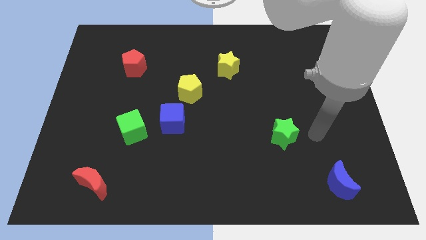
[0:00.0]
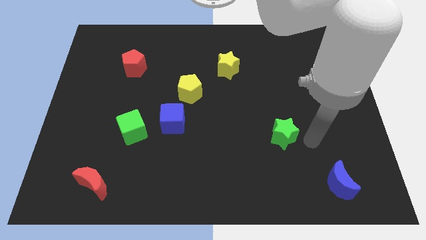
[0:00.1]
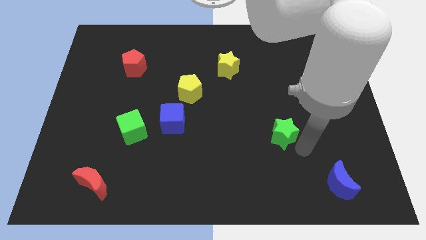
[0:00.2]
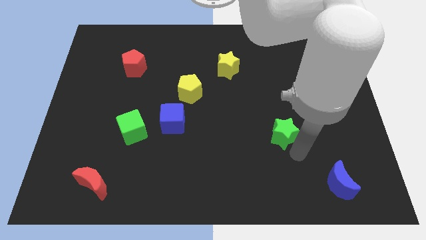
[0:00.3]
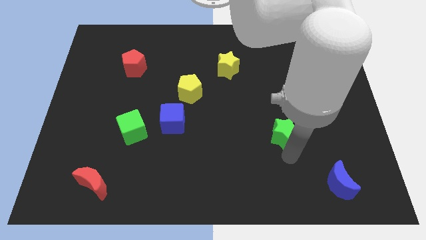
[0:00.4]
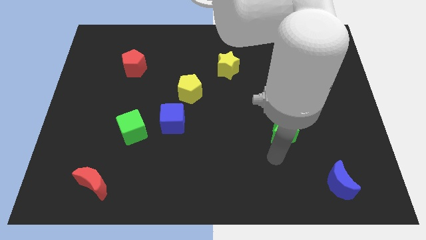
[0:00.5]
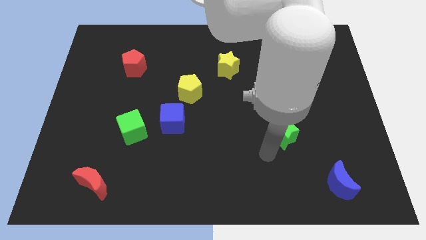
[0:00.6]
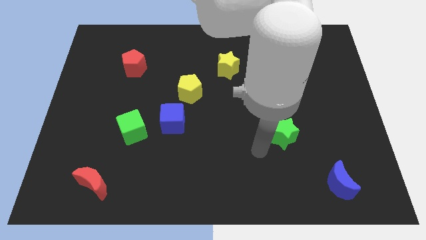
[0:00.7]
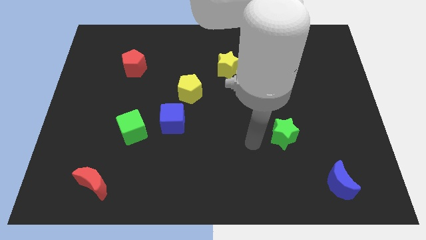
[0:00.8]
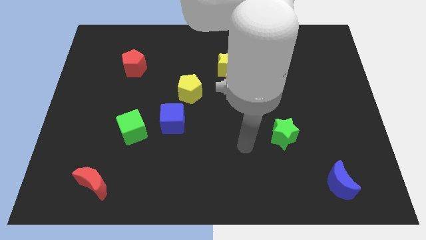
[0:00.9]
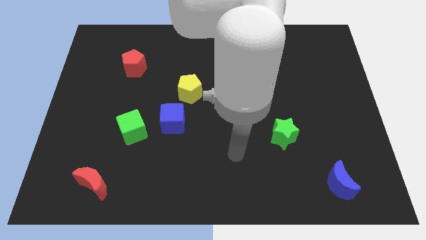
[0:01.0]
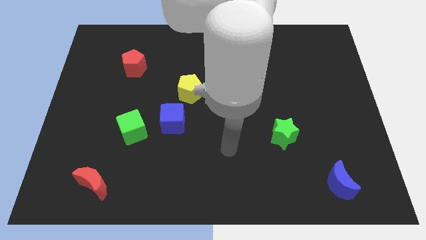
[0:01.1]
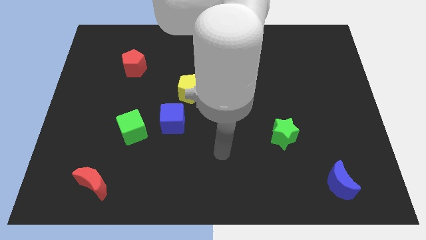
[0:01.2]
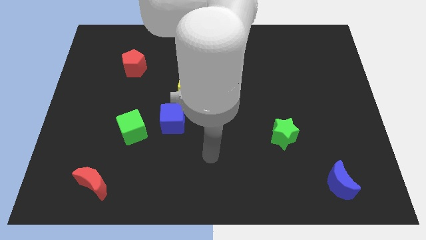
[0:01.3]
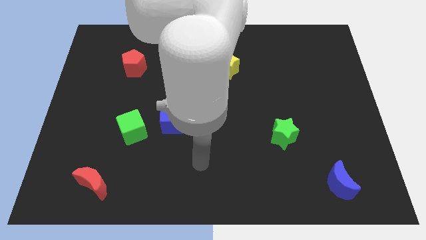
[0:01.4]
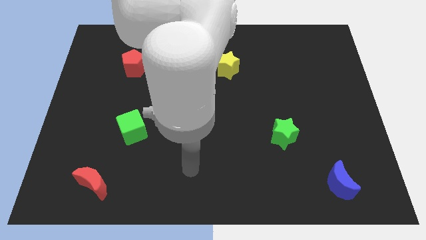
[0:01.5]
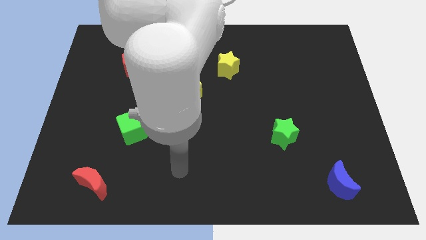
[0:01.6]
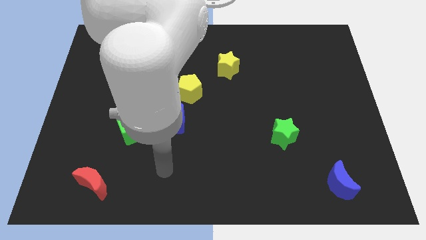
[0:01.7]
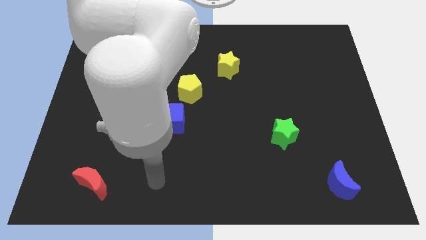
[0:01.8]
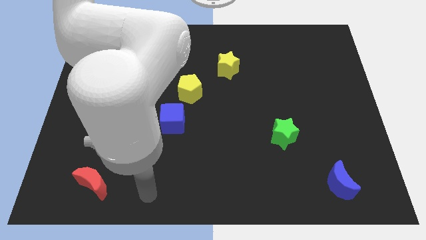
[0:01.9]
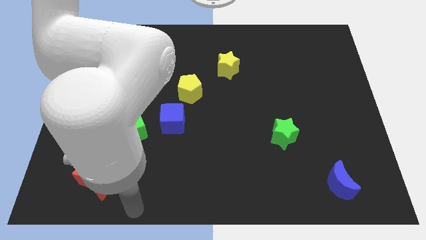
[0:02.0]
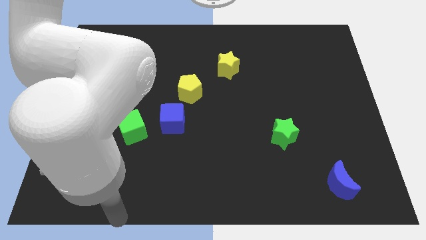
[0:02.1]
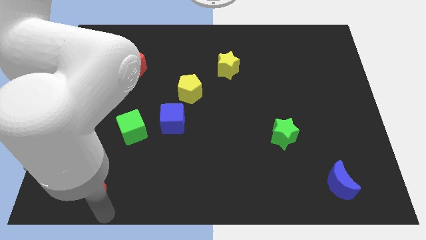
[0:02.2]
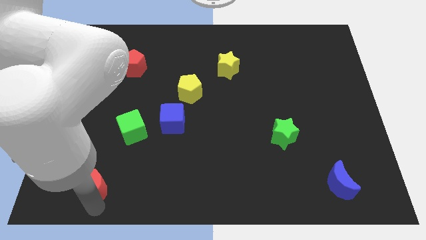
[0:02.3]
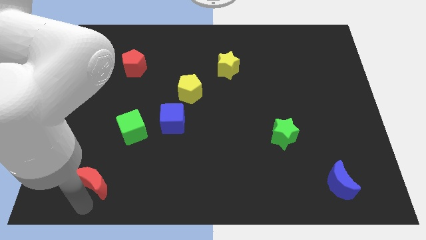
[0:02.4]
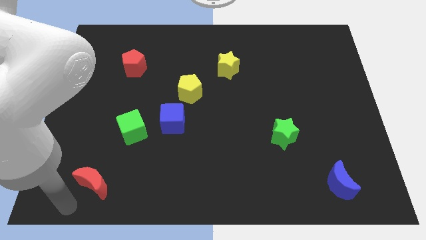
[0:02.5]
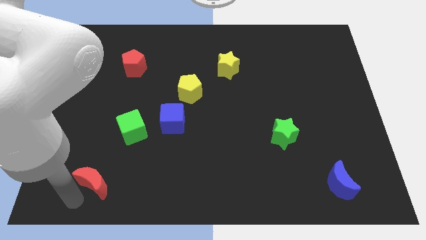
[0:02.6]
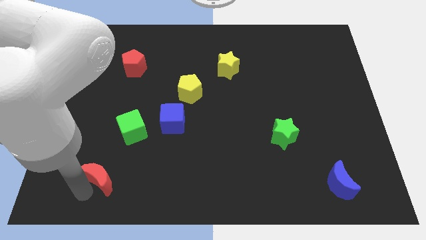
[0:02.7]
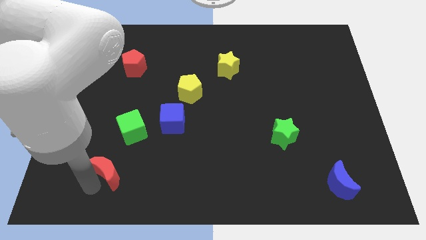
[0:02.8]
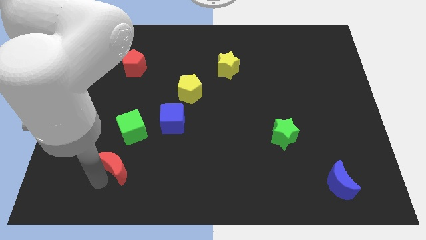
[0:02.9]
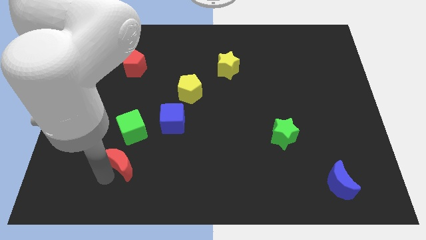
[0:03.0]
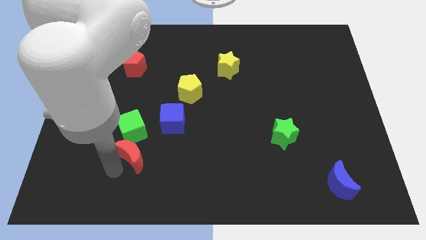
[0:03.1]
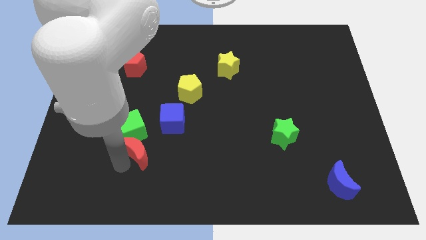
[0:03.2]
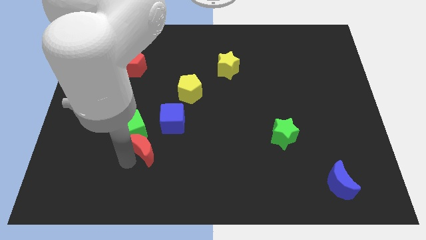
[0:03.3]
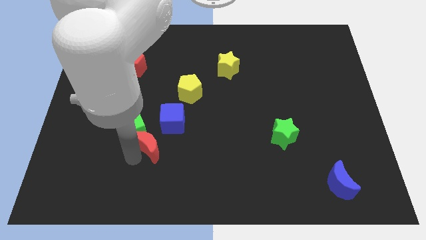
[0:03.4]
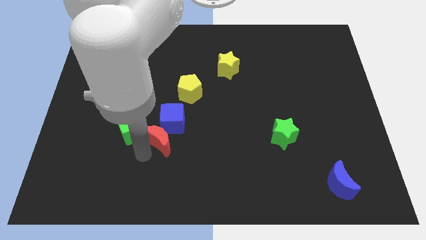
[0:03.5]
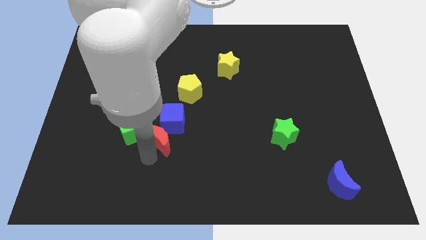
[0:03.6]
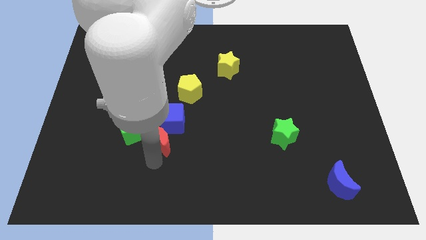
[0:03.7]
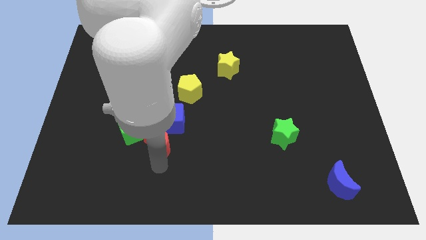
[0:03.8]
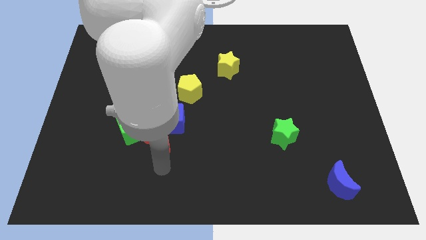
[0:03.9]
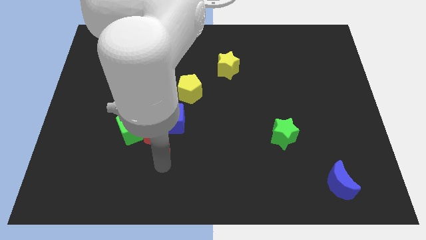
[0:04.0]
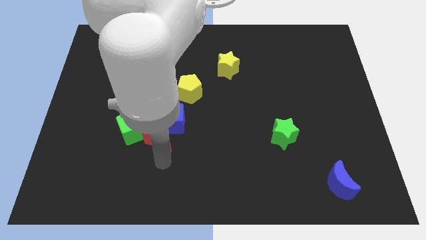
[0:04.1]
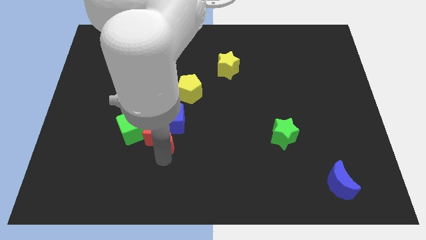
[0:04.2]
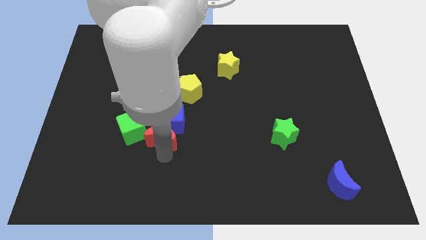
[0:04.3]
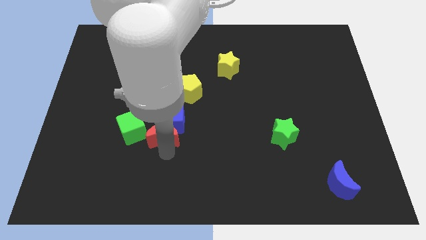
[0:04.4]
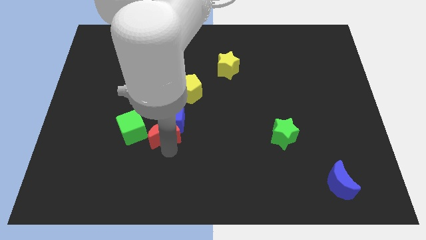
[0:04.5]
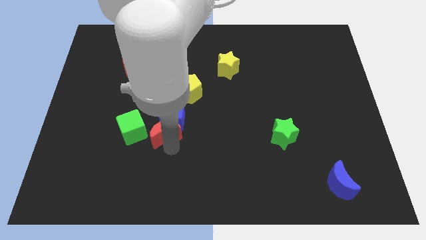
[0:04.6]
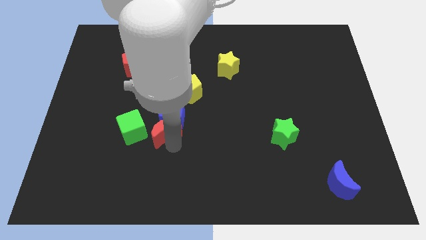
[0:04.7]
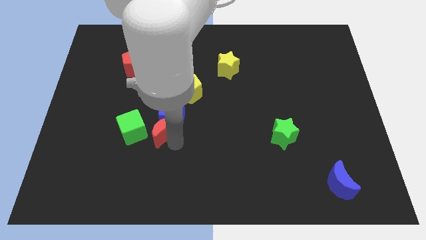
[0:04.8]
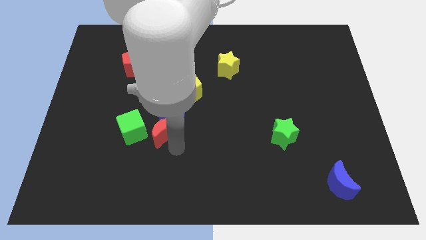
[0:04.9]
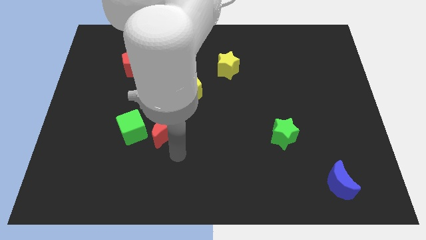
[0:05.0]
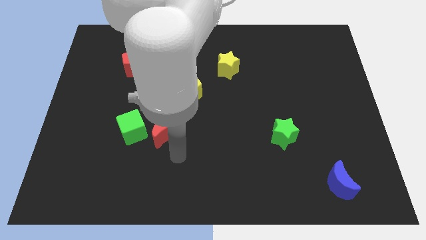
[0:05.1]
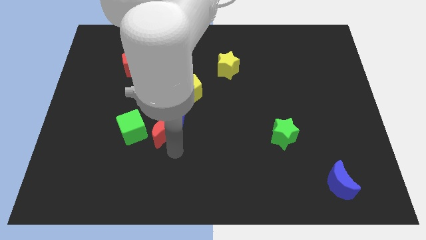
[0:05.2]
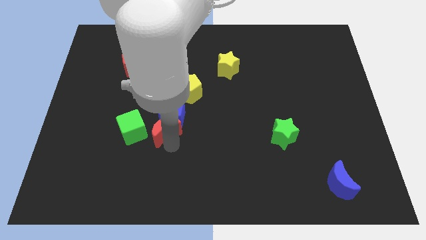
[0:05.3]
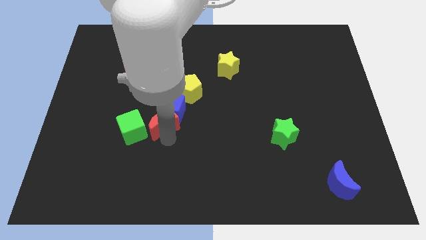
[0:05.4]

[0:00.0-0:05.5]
slide the red moon to the bottom left of the yellow pentagon
